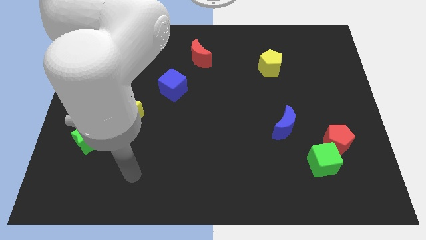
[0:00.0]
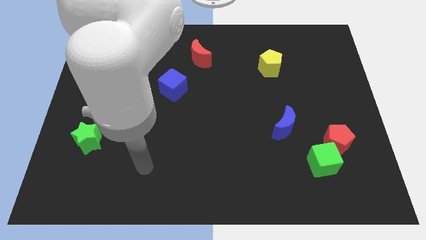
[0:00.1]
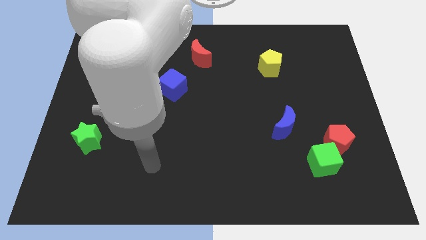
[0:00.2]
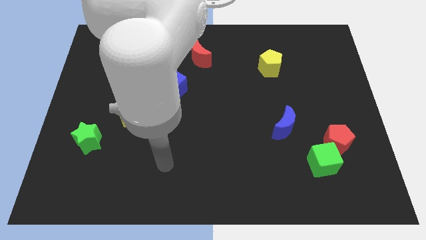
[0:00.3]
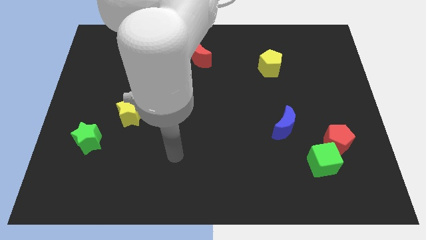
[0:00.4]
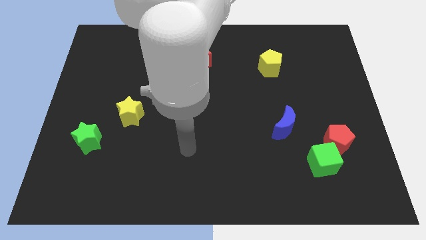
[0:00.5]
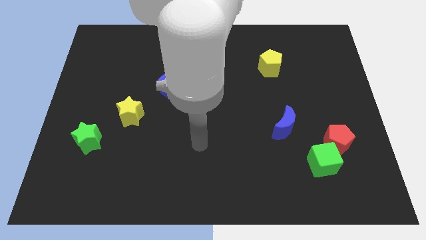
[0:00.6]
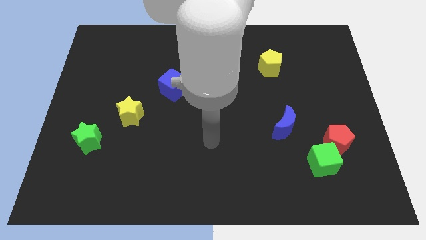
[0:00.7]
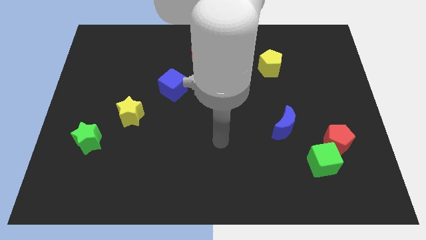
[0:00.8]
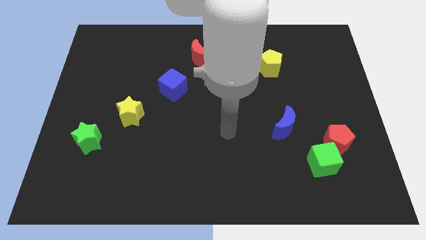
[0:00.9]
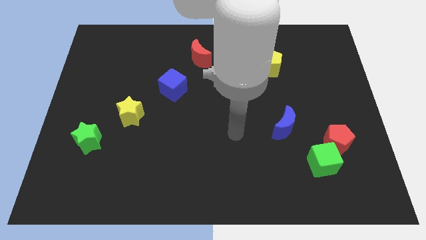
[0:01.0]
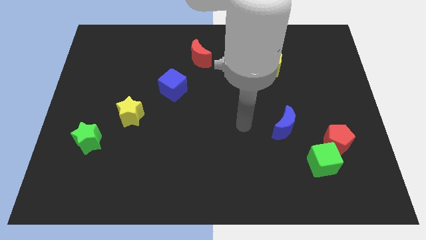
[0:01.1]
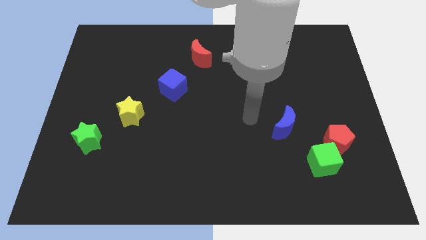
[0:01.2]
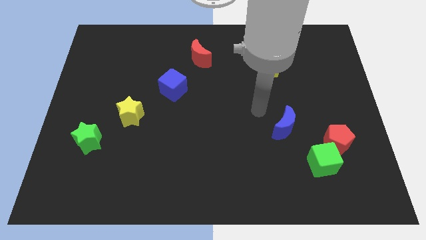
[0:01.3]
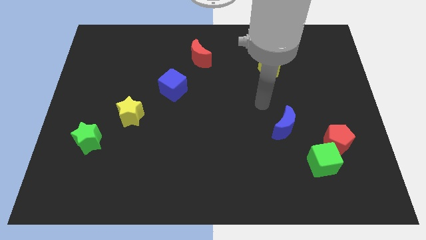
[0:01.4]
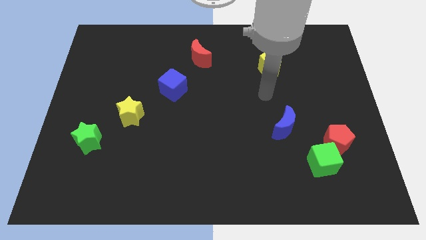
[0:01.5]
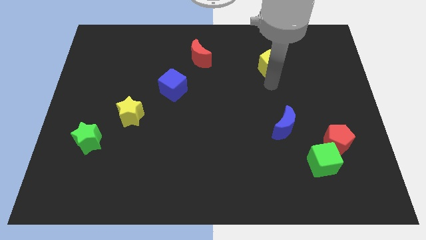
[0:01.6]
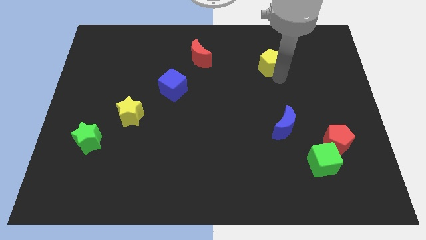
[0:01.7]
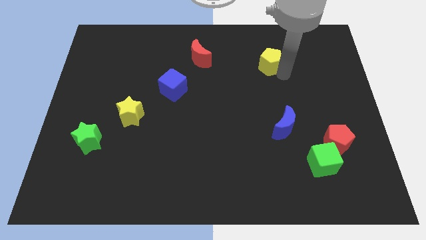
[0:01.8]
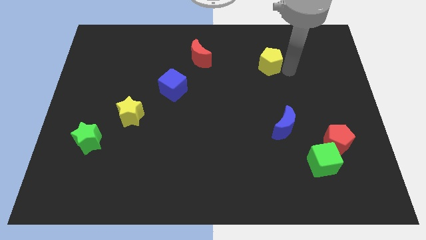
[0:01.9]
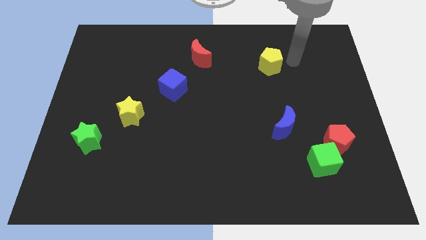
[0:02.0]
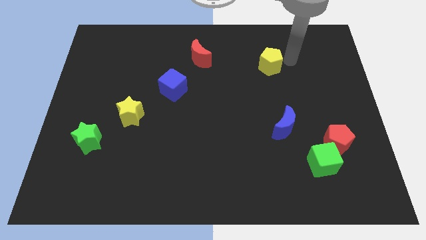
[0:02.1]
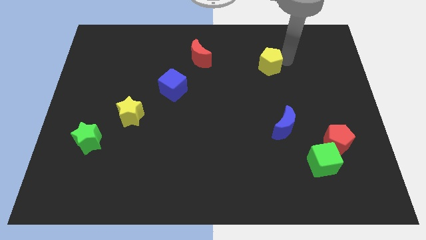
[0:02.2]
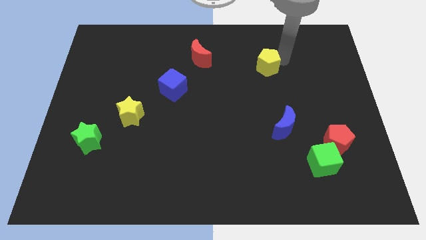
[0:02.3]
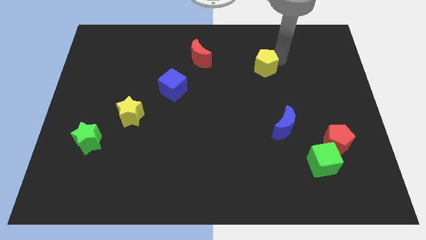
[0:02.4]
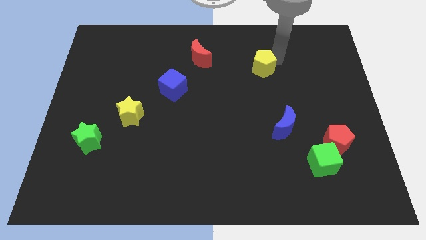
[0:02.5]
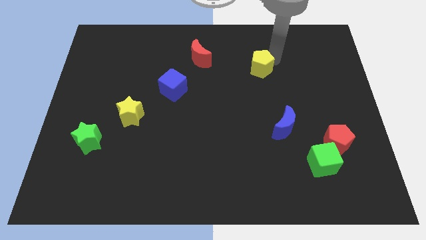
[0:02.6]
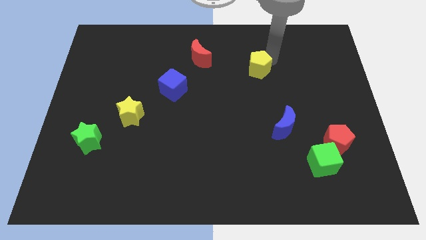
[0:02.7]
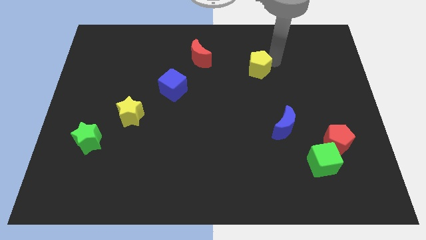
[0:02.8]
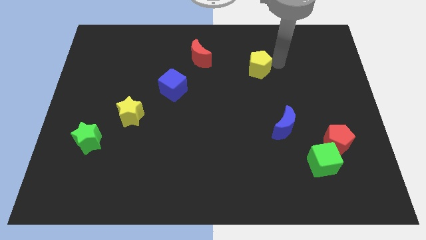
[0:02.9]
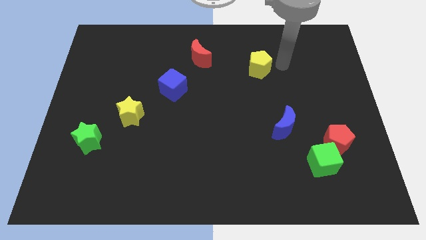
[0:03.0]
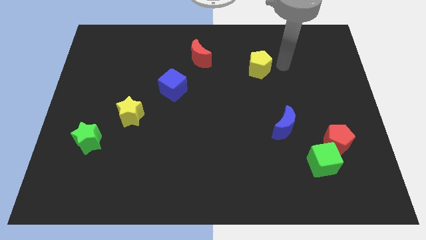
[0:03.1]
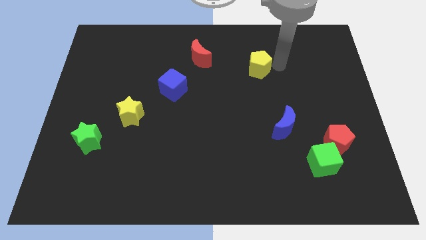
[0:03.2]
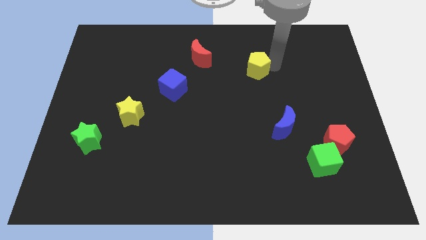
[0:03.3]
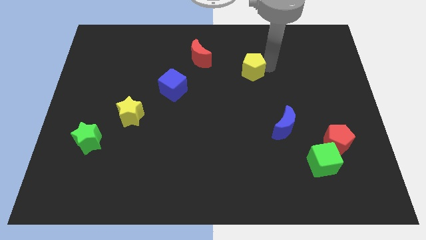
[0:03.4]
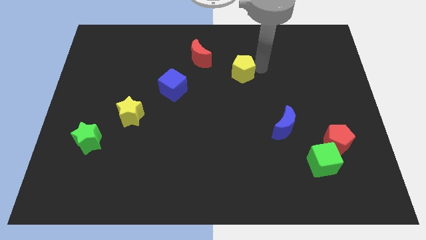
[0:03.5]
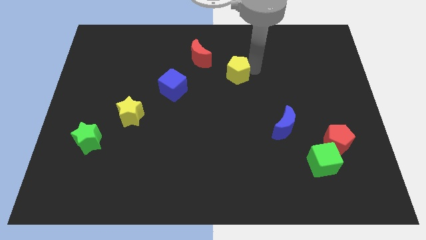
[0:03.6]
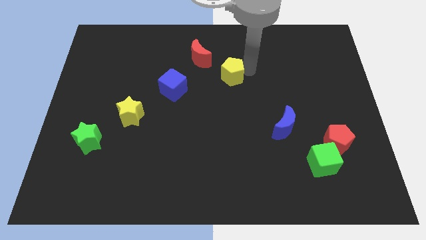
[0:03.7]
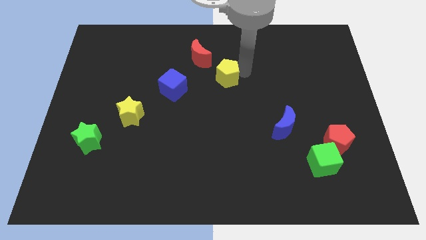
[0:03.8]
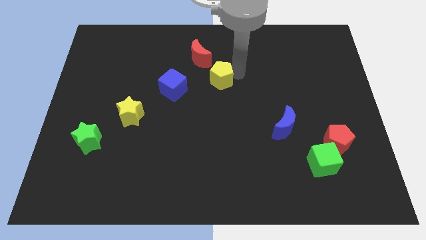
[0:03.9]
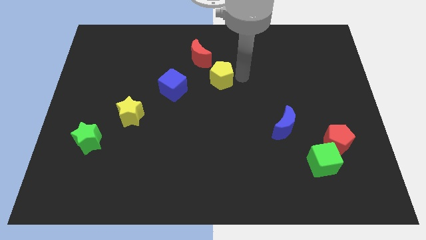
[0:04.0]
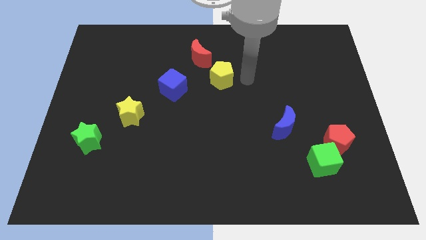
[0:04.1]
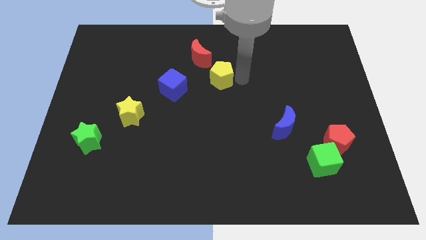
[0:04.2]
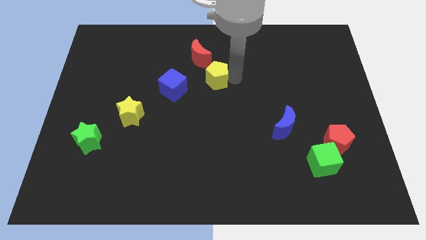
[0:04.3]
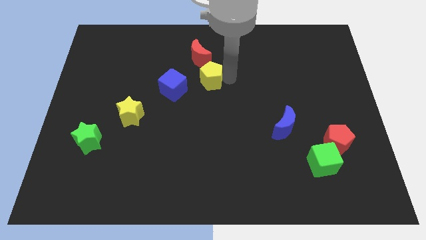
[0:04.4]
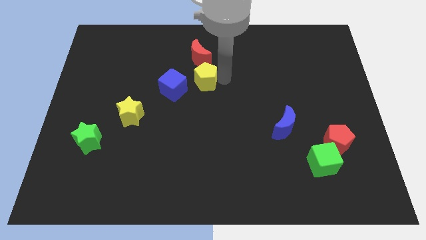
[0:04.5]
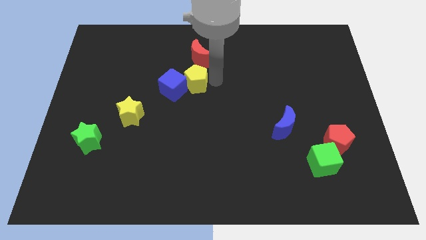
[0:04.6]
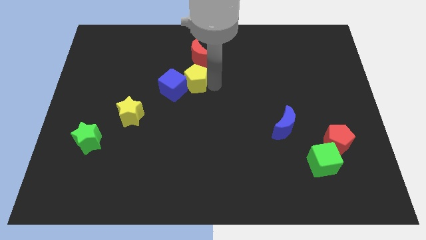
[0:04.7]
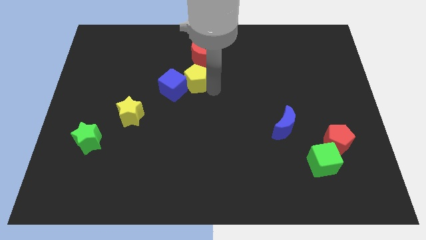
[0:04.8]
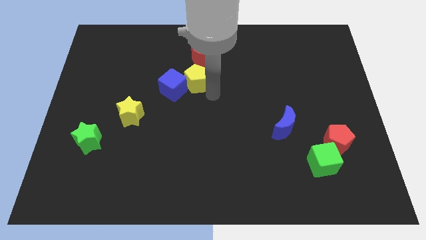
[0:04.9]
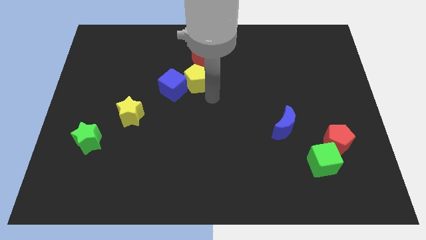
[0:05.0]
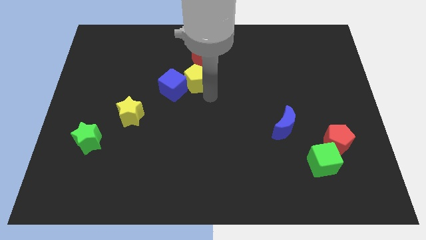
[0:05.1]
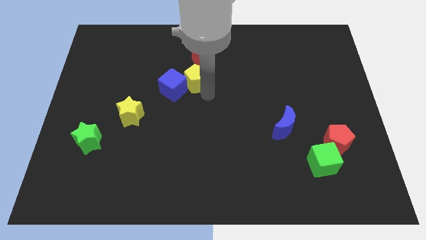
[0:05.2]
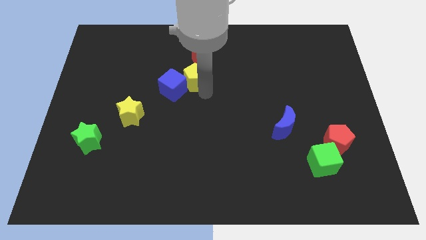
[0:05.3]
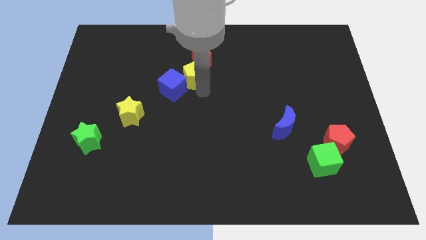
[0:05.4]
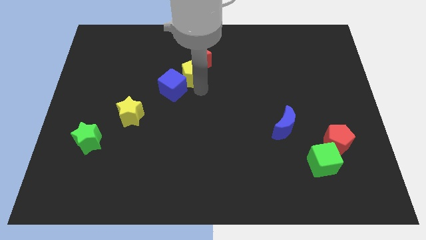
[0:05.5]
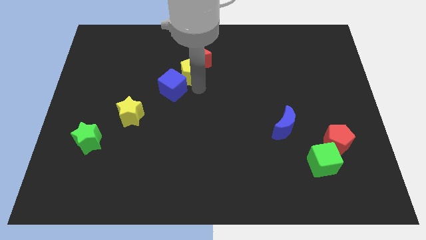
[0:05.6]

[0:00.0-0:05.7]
push the yellow pentagon to the left

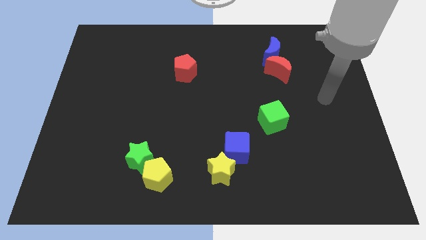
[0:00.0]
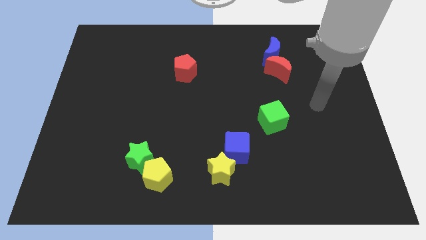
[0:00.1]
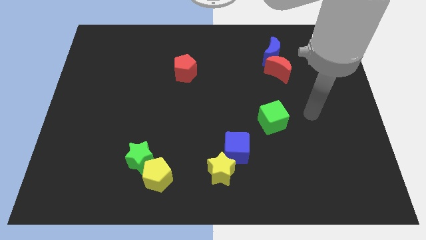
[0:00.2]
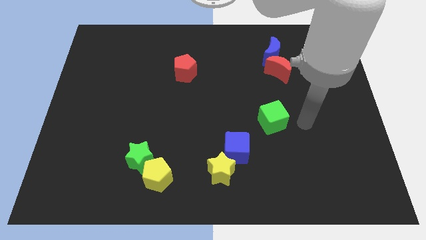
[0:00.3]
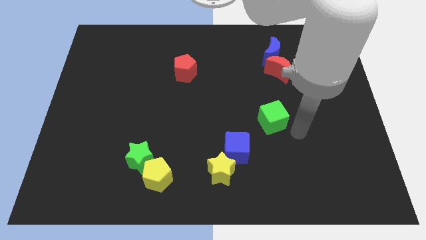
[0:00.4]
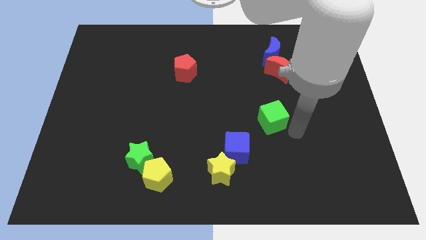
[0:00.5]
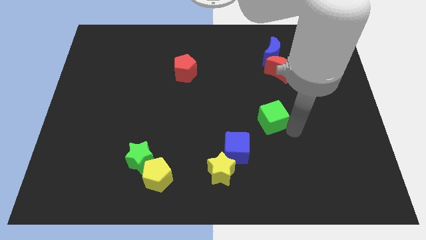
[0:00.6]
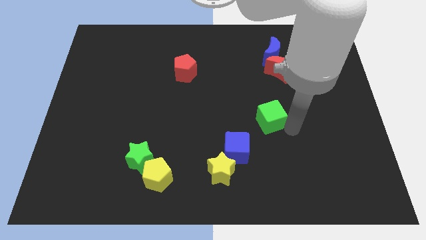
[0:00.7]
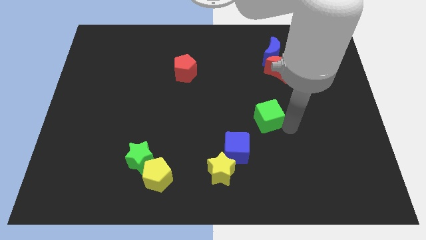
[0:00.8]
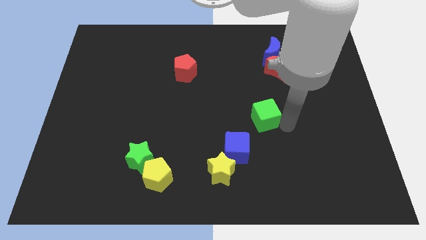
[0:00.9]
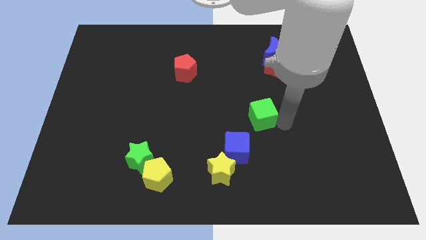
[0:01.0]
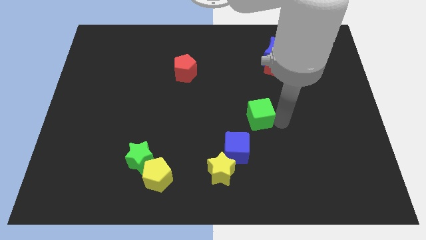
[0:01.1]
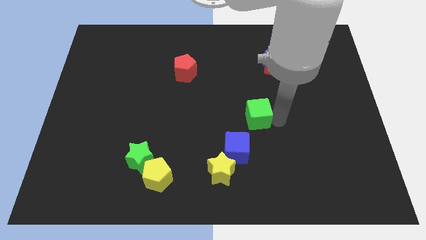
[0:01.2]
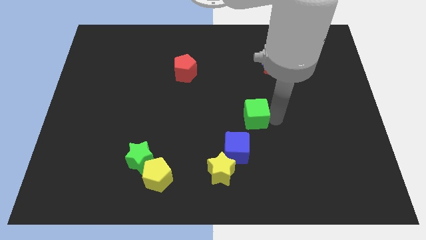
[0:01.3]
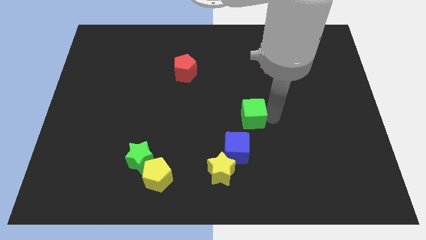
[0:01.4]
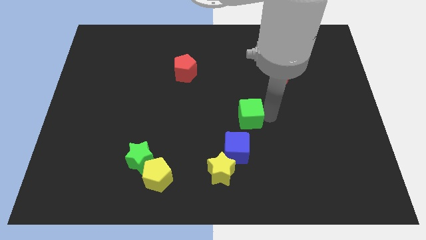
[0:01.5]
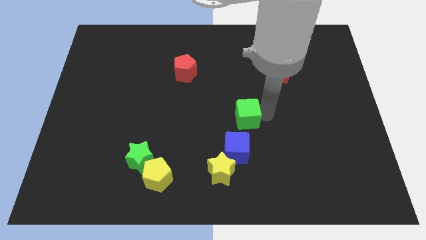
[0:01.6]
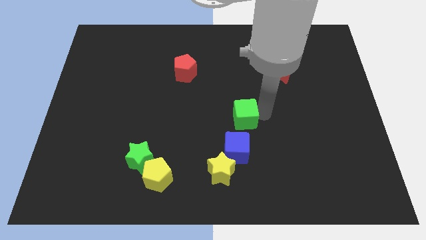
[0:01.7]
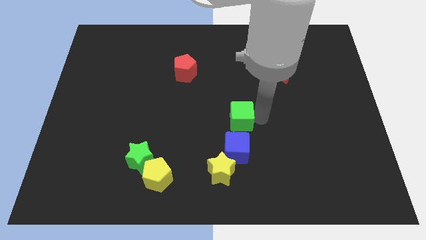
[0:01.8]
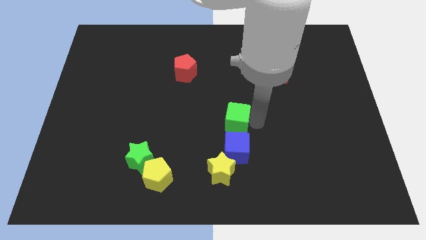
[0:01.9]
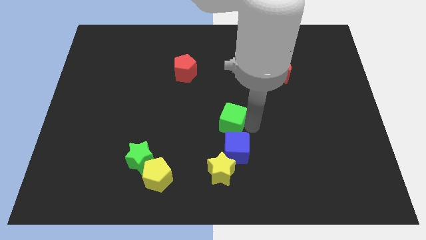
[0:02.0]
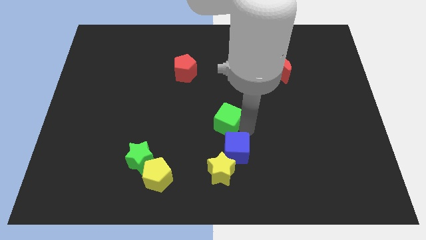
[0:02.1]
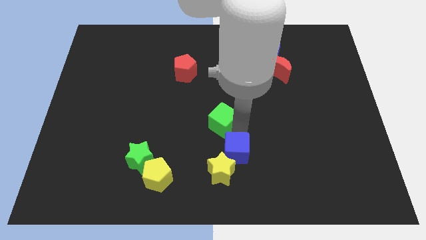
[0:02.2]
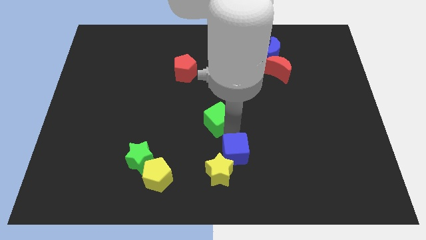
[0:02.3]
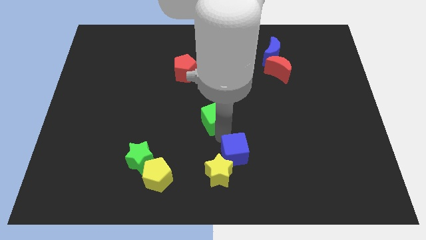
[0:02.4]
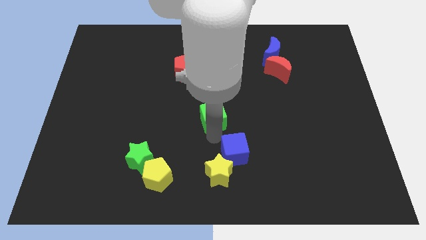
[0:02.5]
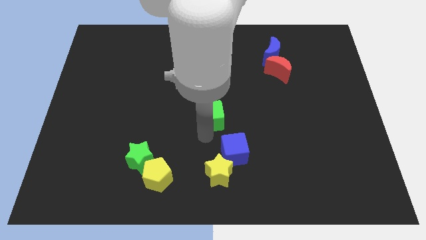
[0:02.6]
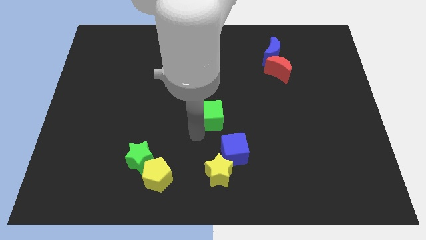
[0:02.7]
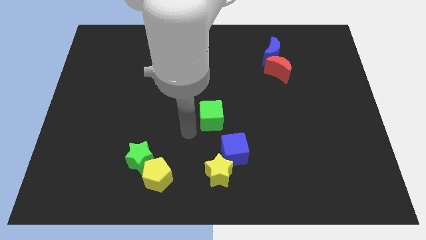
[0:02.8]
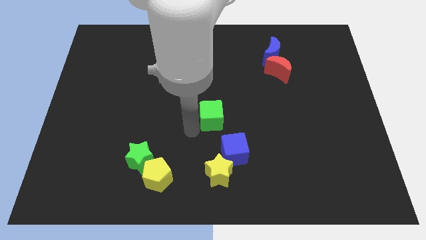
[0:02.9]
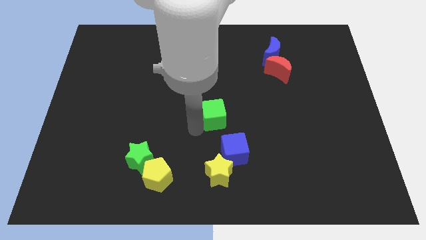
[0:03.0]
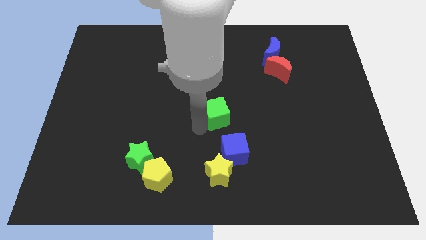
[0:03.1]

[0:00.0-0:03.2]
push the green cube a little diagonally upwards and left
